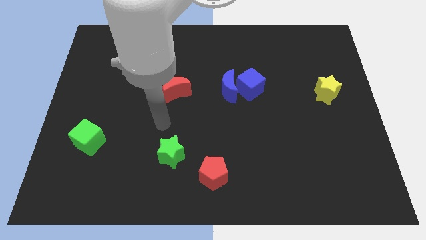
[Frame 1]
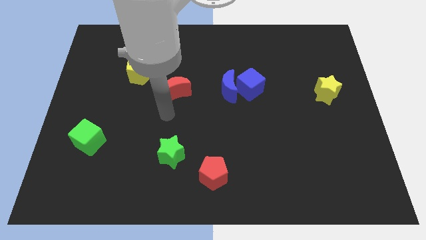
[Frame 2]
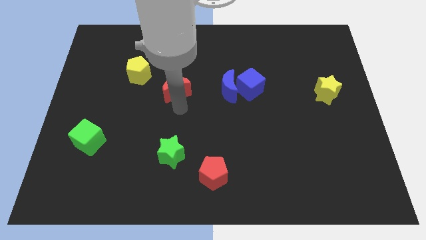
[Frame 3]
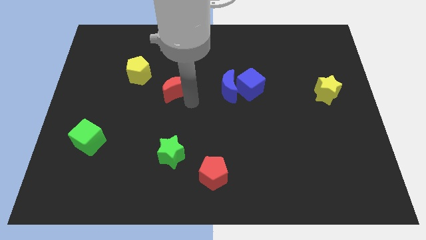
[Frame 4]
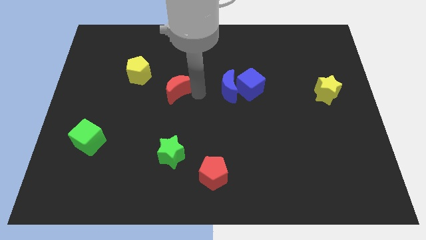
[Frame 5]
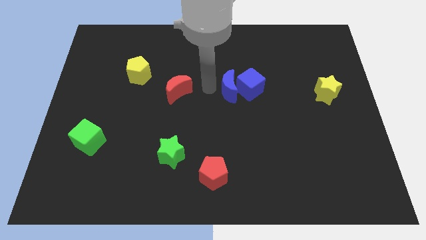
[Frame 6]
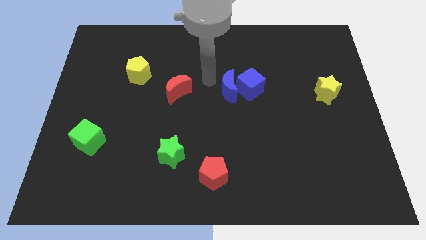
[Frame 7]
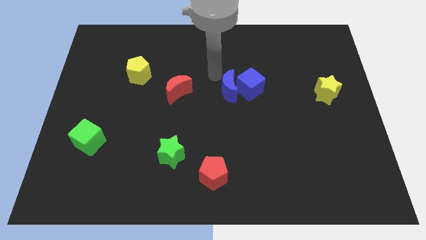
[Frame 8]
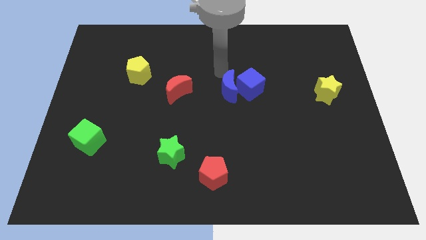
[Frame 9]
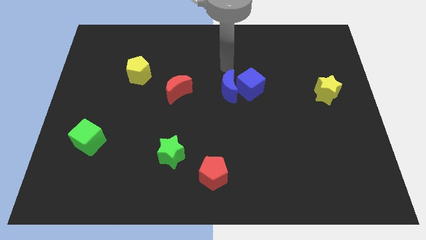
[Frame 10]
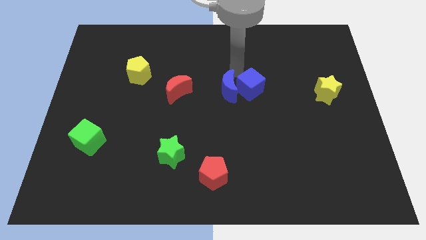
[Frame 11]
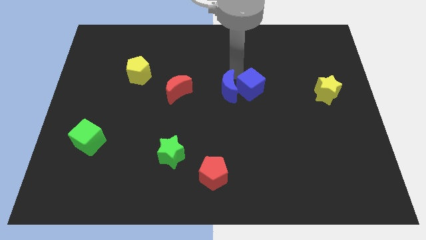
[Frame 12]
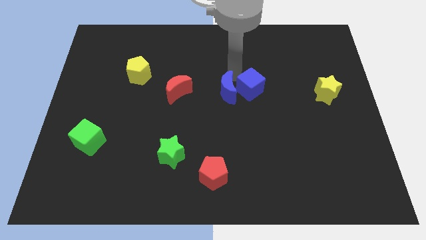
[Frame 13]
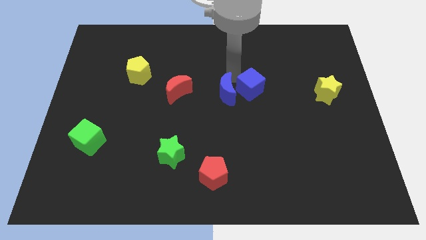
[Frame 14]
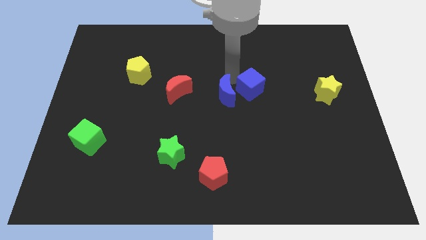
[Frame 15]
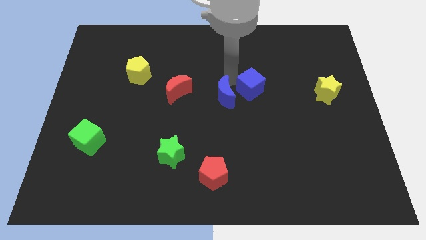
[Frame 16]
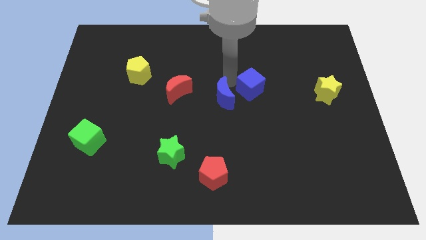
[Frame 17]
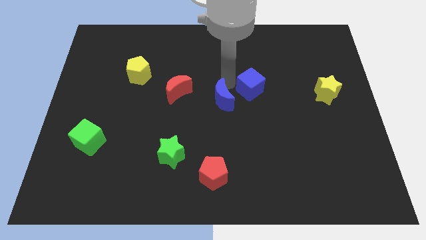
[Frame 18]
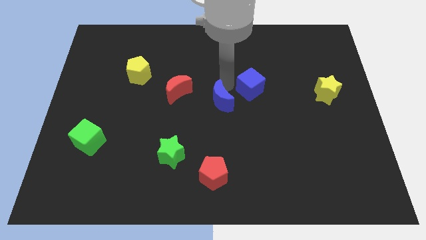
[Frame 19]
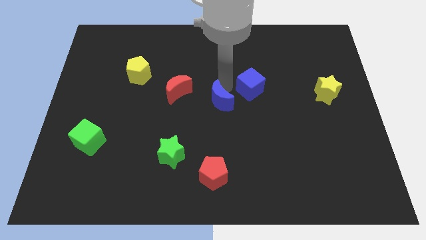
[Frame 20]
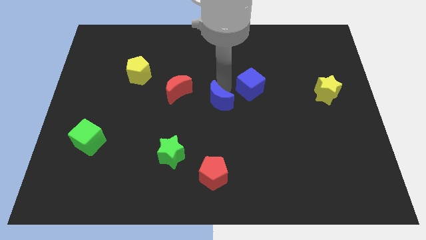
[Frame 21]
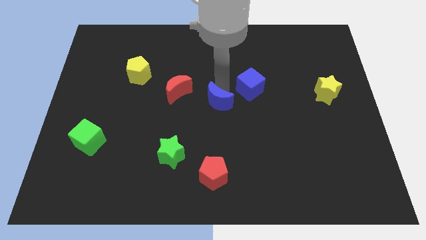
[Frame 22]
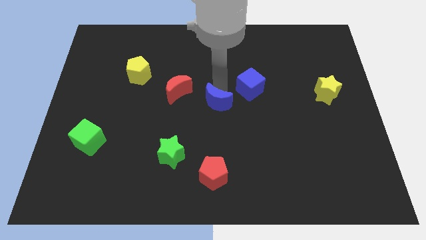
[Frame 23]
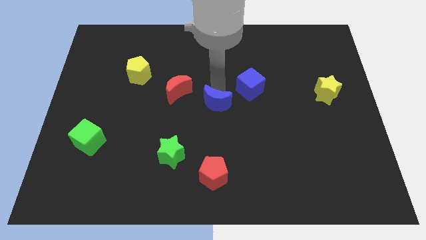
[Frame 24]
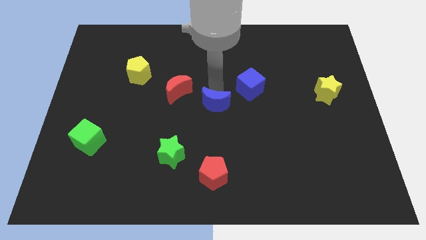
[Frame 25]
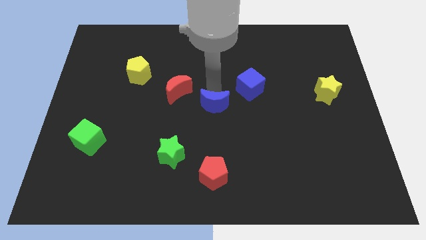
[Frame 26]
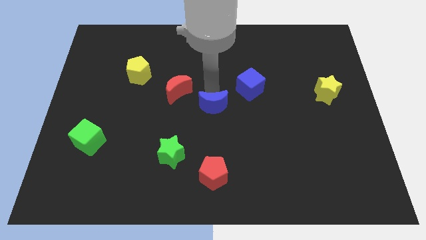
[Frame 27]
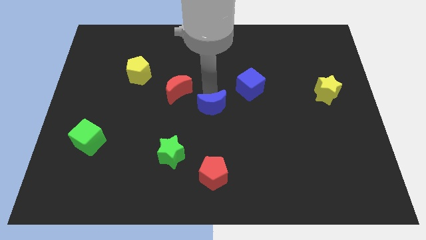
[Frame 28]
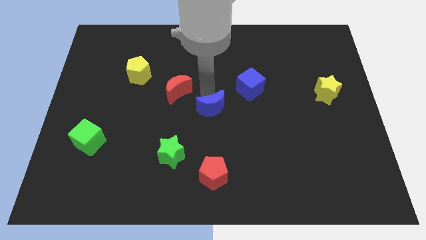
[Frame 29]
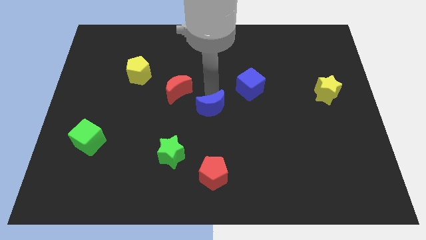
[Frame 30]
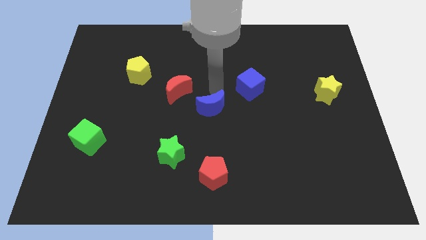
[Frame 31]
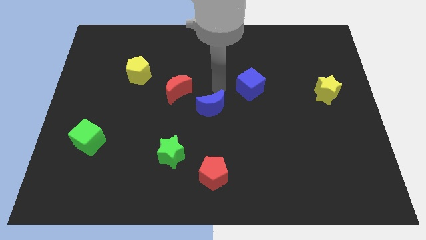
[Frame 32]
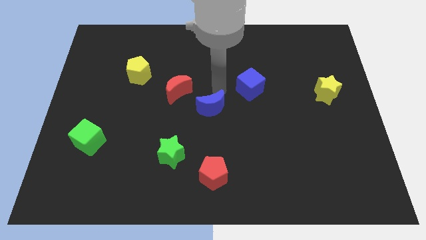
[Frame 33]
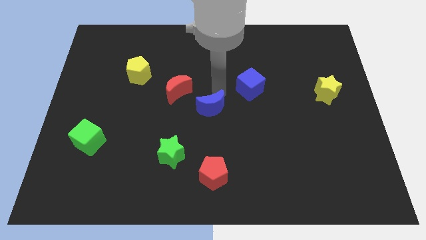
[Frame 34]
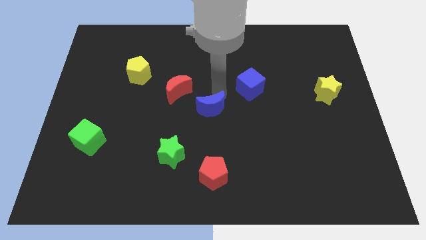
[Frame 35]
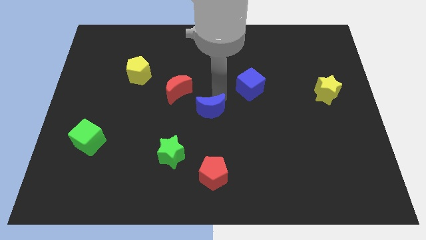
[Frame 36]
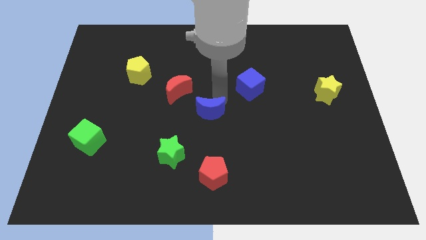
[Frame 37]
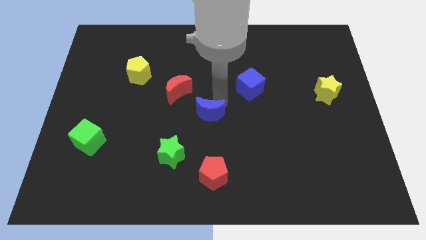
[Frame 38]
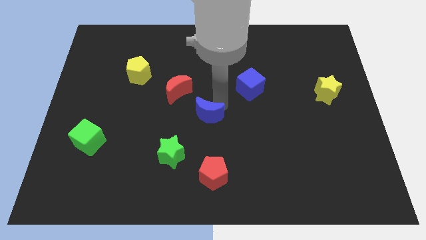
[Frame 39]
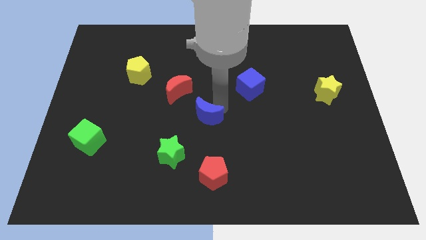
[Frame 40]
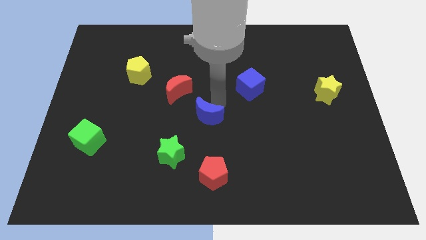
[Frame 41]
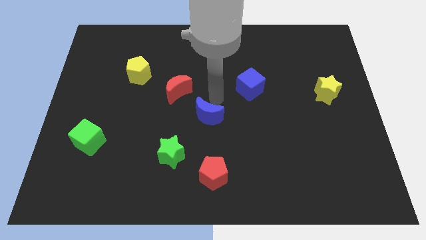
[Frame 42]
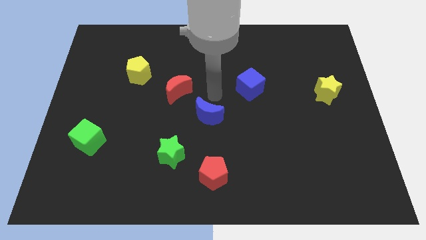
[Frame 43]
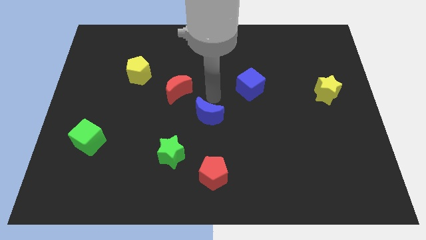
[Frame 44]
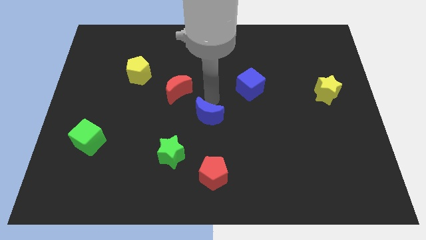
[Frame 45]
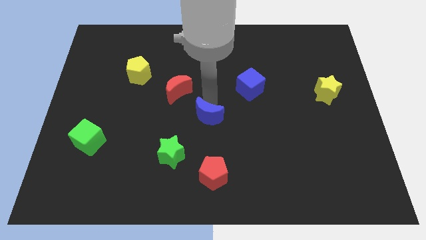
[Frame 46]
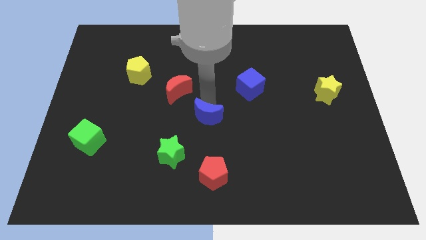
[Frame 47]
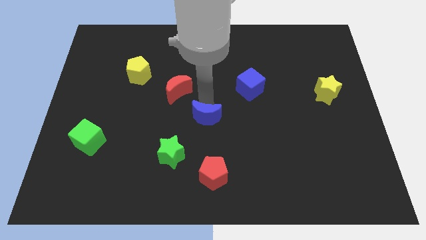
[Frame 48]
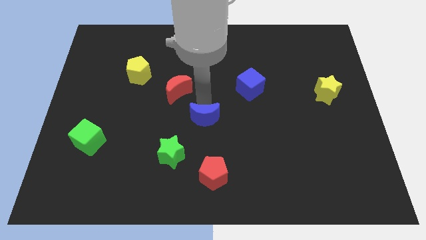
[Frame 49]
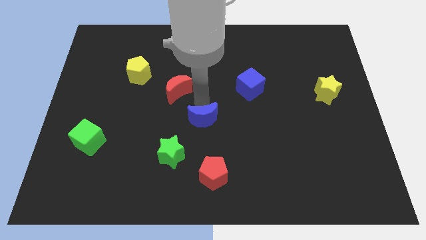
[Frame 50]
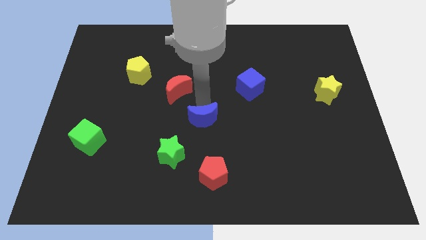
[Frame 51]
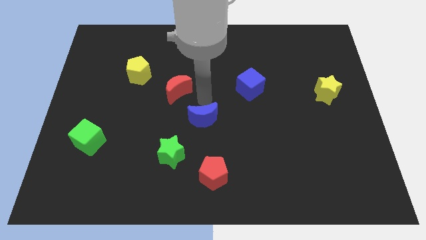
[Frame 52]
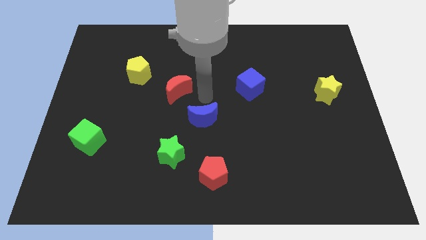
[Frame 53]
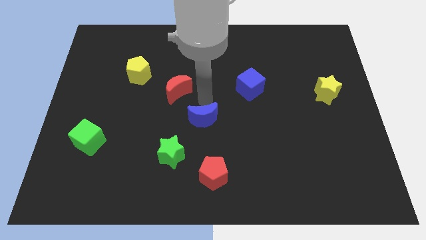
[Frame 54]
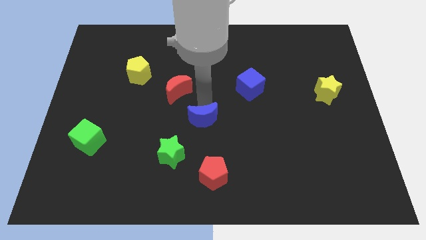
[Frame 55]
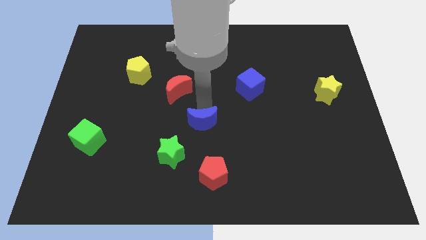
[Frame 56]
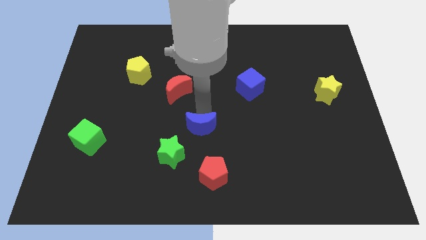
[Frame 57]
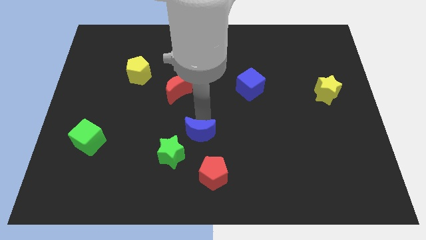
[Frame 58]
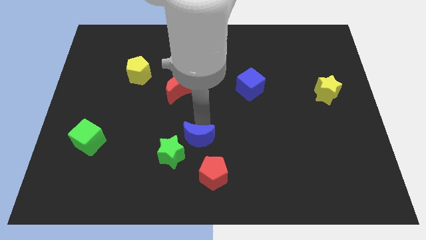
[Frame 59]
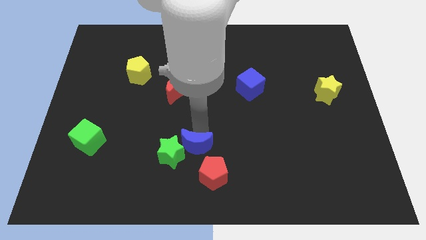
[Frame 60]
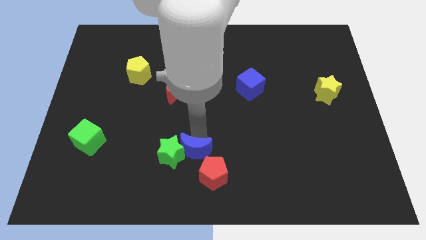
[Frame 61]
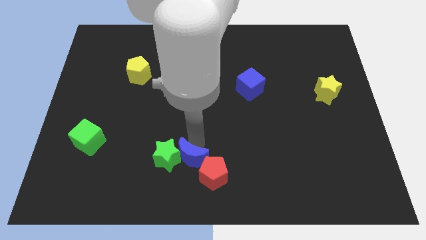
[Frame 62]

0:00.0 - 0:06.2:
push the blue moon to the bottom

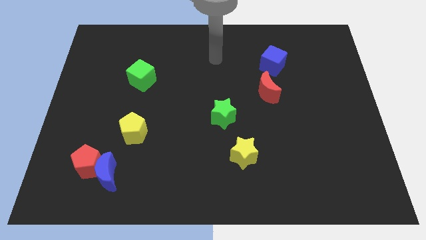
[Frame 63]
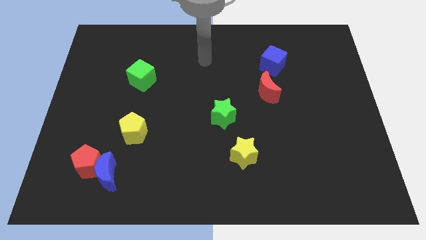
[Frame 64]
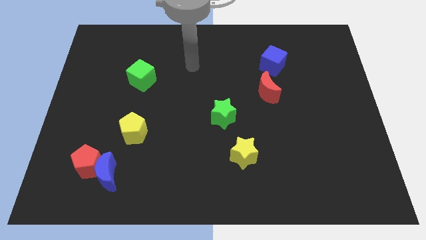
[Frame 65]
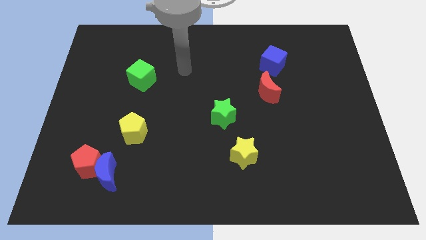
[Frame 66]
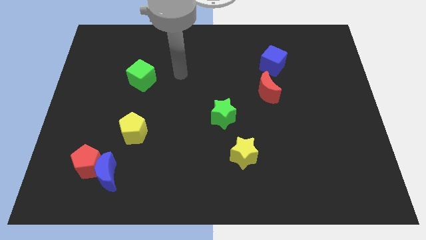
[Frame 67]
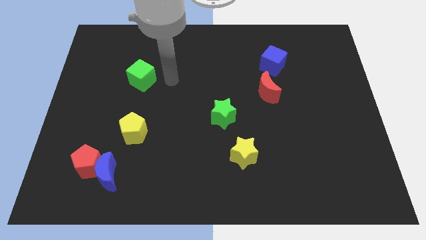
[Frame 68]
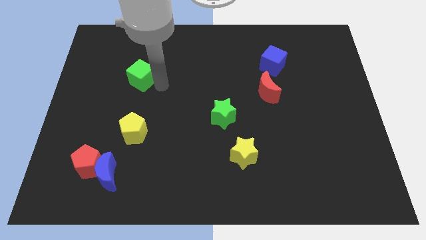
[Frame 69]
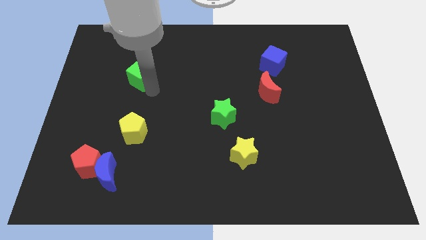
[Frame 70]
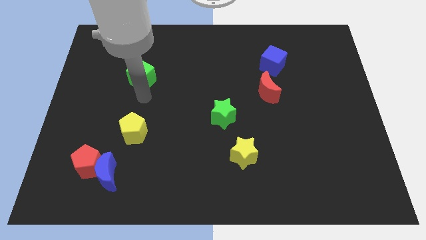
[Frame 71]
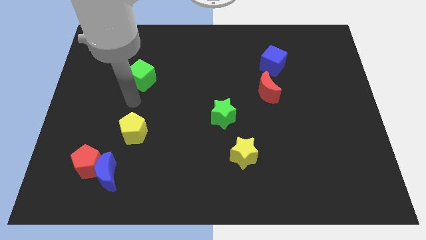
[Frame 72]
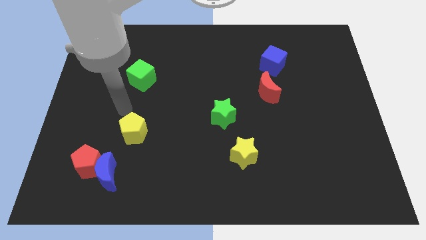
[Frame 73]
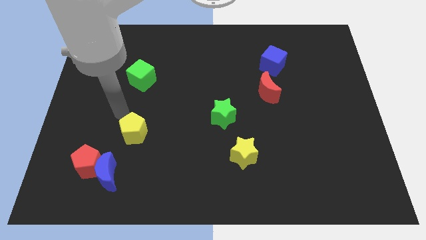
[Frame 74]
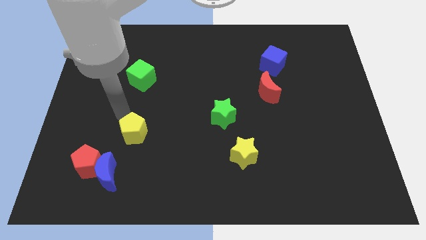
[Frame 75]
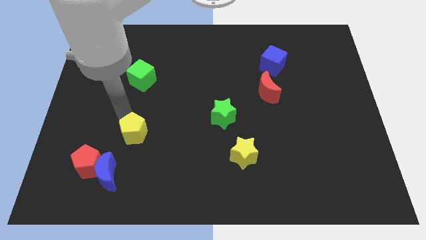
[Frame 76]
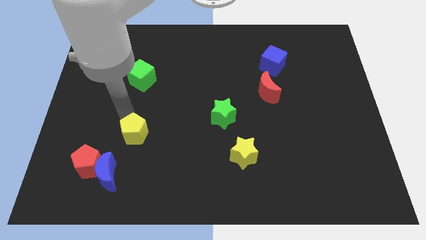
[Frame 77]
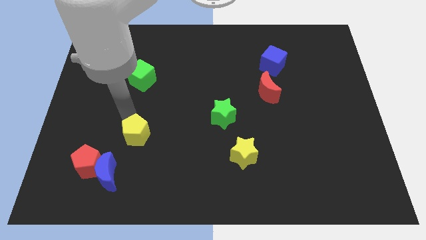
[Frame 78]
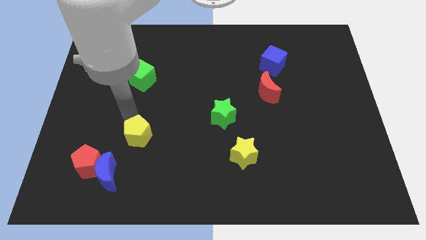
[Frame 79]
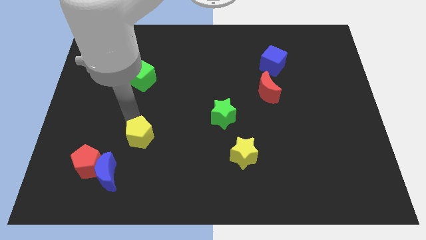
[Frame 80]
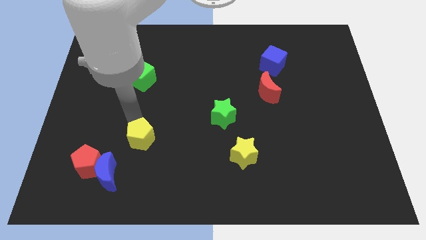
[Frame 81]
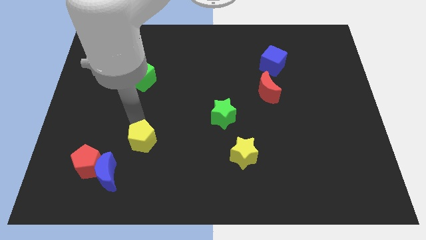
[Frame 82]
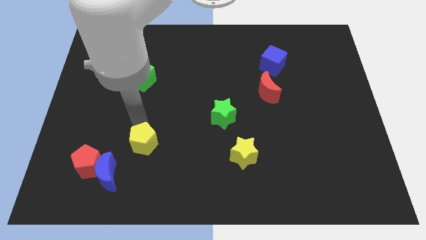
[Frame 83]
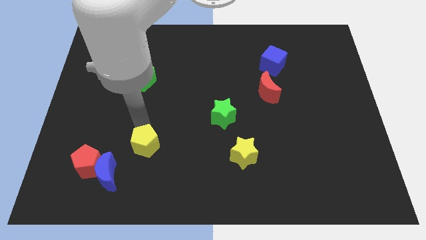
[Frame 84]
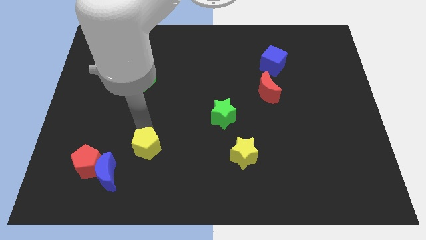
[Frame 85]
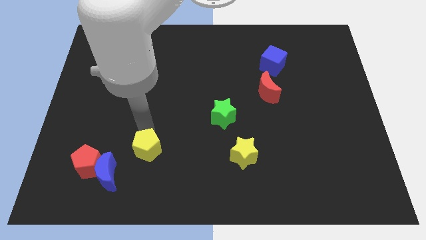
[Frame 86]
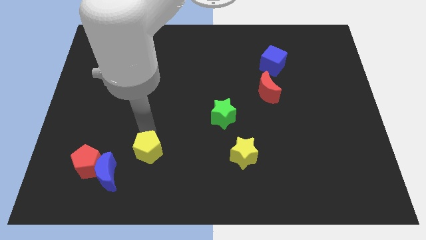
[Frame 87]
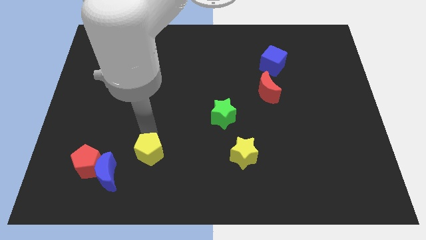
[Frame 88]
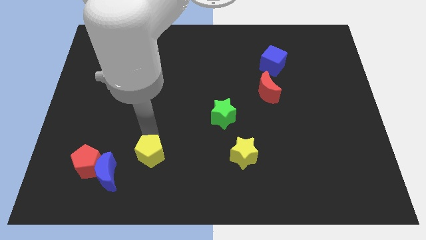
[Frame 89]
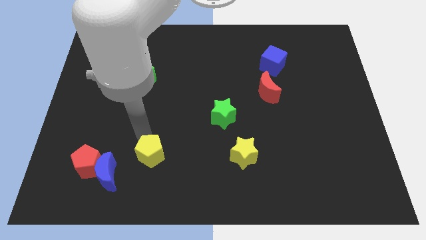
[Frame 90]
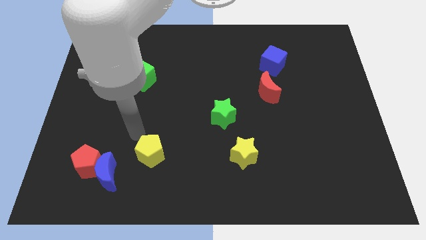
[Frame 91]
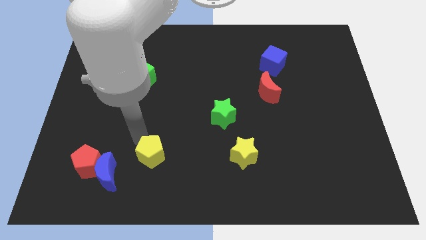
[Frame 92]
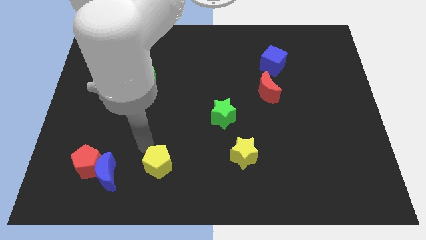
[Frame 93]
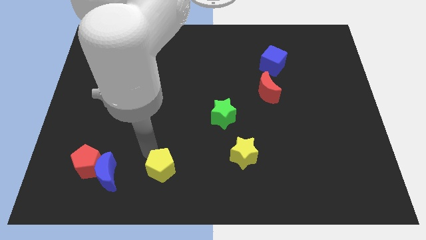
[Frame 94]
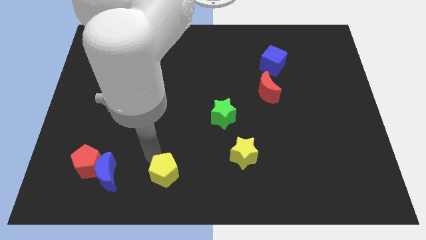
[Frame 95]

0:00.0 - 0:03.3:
put the yellow pentagon to the bottom side
